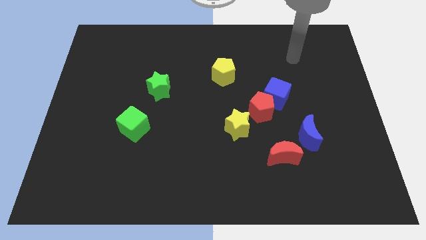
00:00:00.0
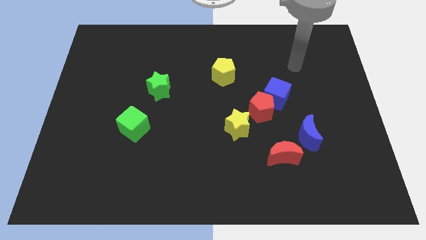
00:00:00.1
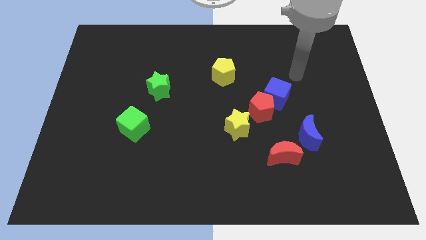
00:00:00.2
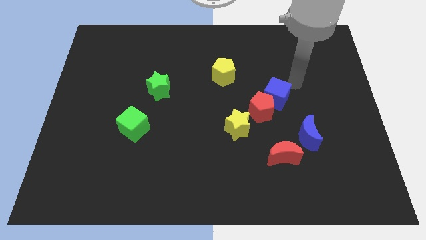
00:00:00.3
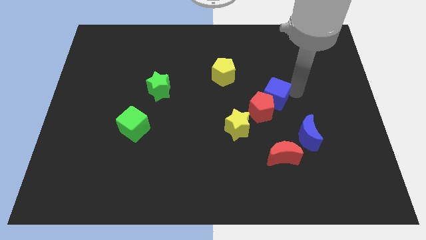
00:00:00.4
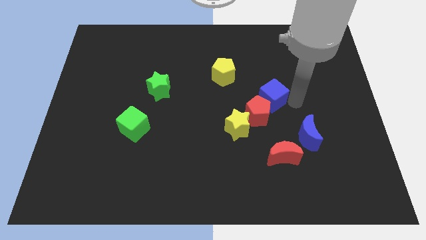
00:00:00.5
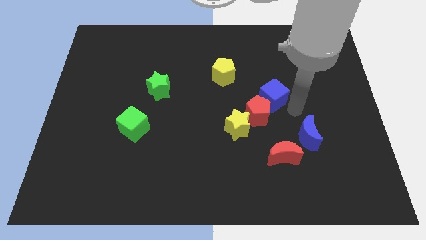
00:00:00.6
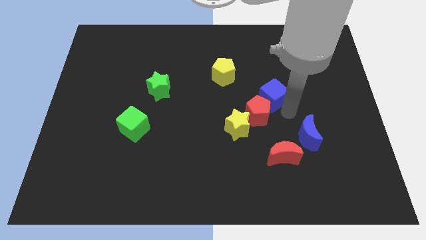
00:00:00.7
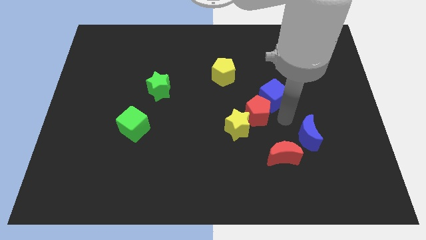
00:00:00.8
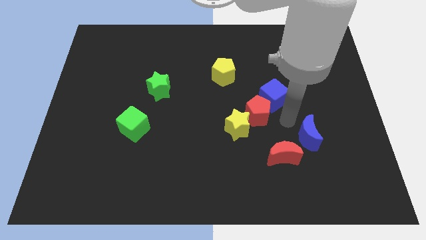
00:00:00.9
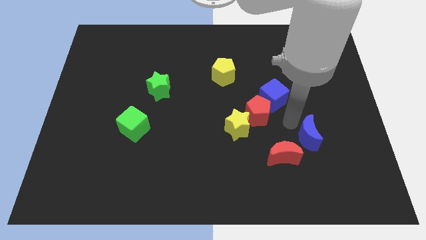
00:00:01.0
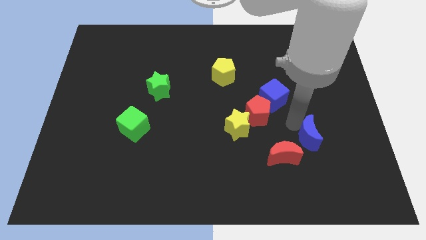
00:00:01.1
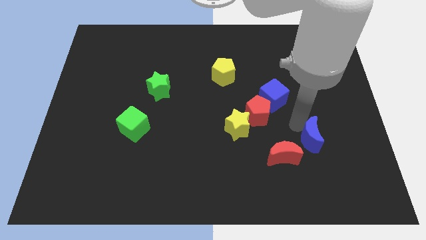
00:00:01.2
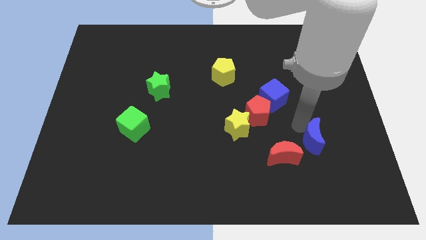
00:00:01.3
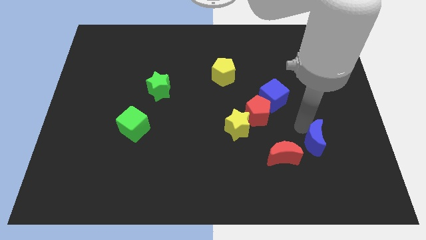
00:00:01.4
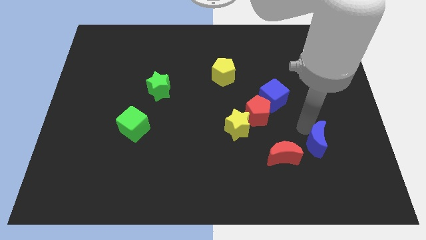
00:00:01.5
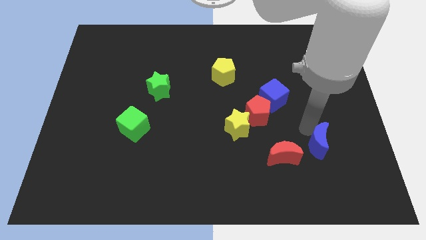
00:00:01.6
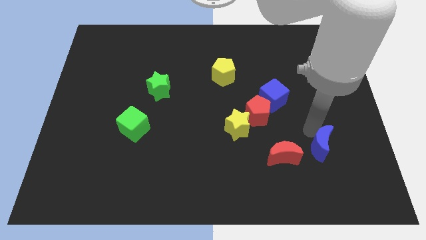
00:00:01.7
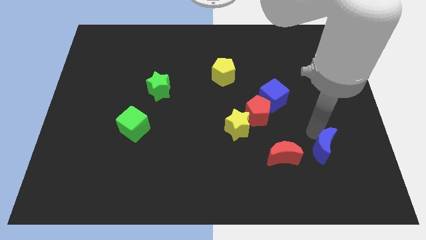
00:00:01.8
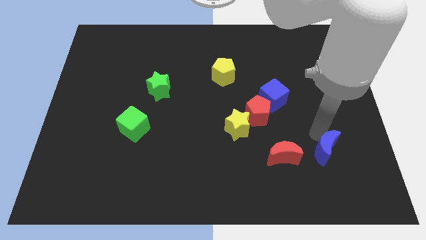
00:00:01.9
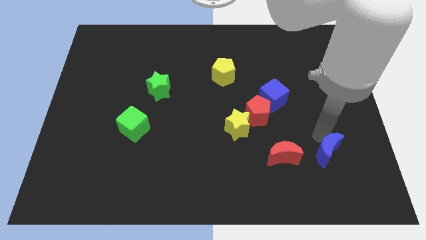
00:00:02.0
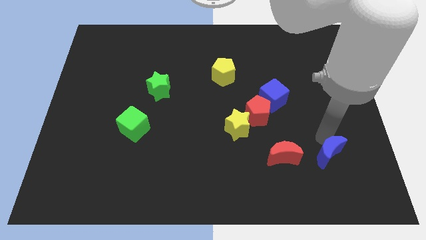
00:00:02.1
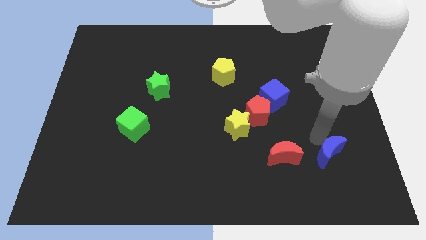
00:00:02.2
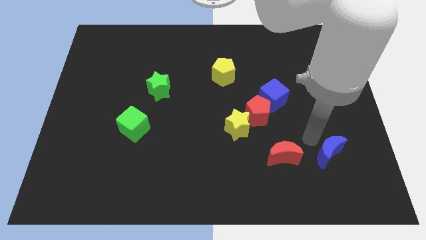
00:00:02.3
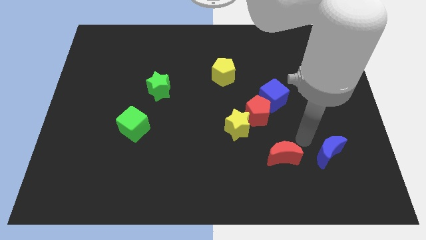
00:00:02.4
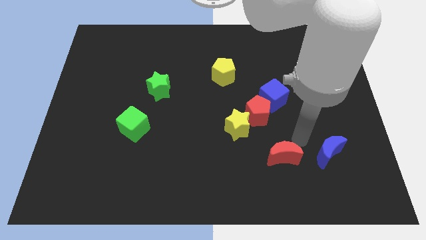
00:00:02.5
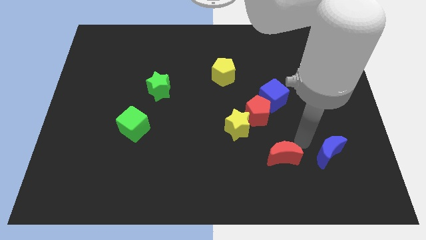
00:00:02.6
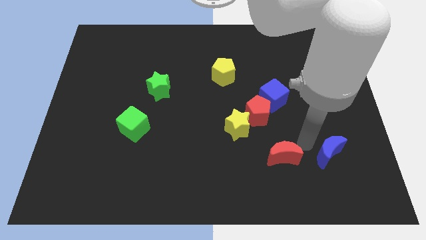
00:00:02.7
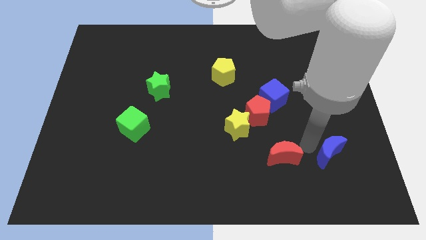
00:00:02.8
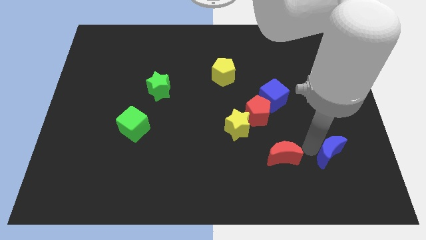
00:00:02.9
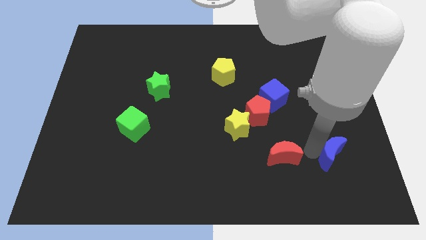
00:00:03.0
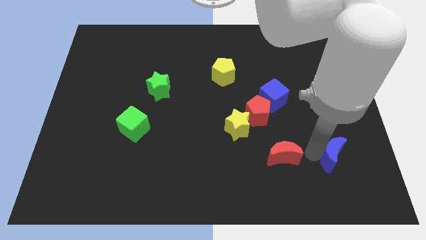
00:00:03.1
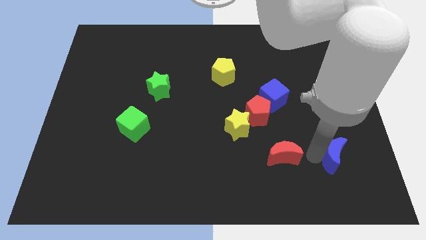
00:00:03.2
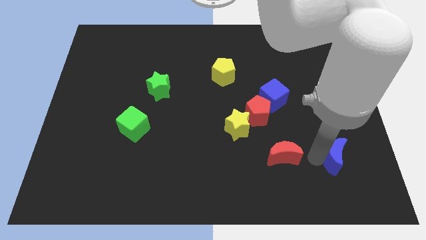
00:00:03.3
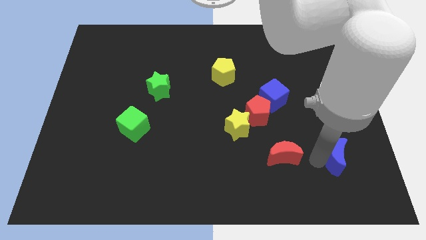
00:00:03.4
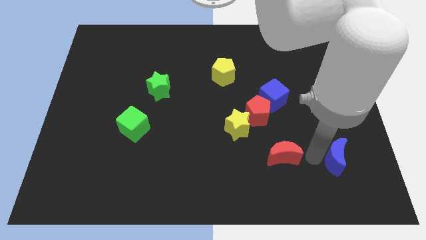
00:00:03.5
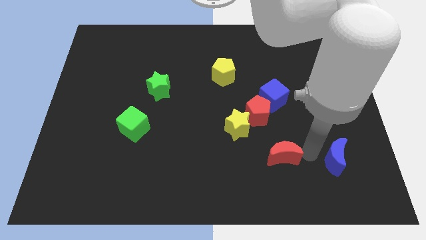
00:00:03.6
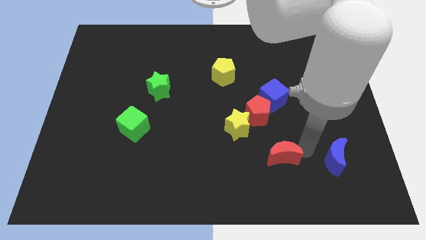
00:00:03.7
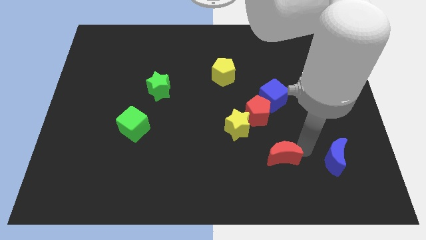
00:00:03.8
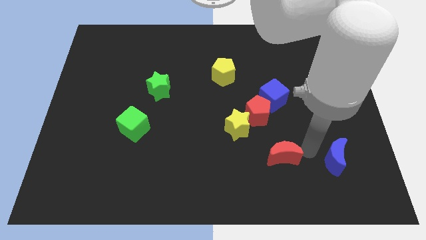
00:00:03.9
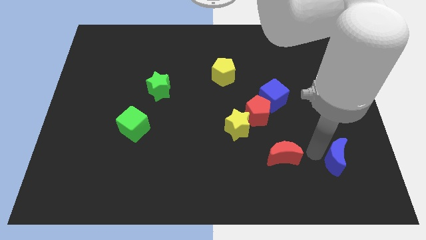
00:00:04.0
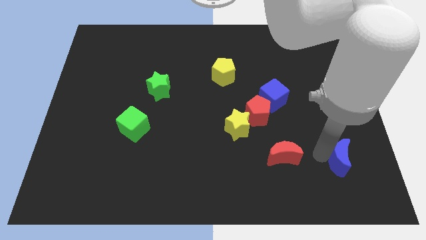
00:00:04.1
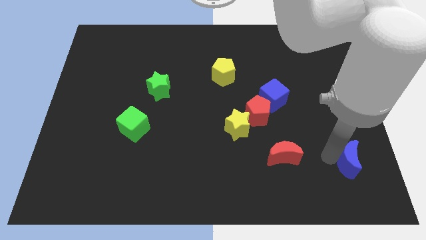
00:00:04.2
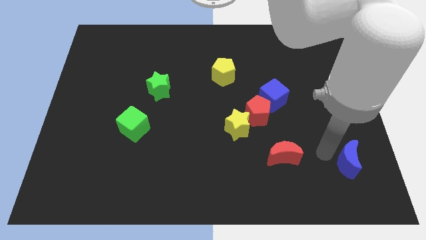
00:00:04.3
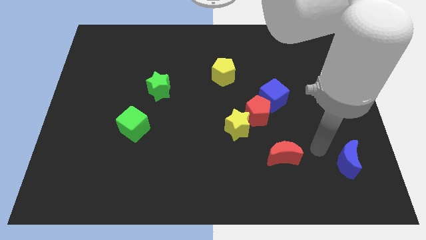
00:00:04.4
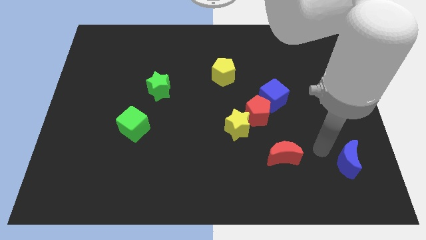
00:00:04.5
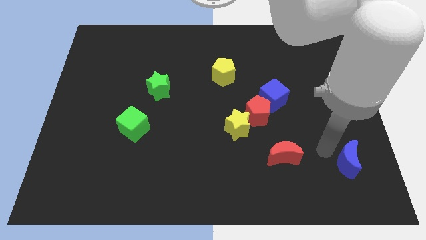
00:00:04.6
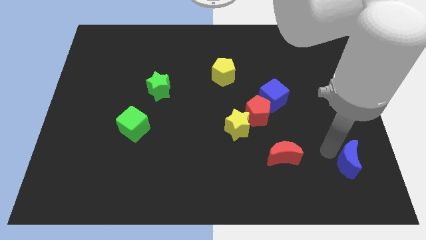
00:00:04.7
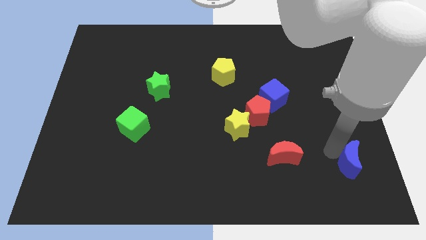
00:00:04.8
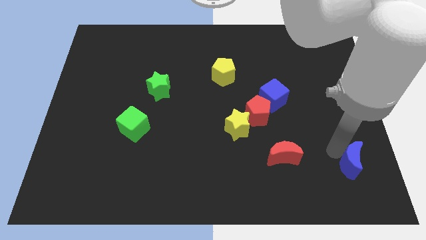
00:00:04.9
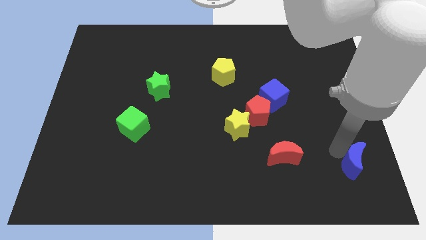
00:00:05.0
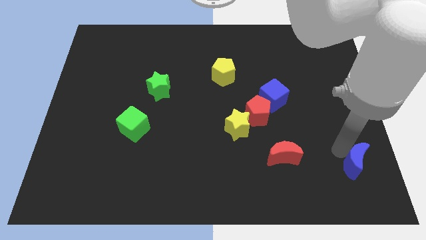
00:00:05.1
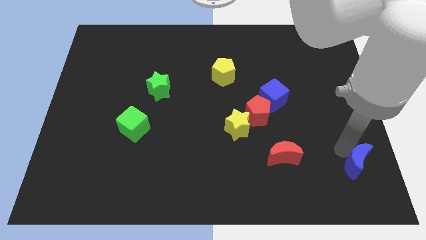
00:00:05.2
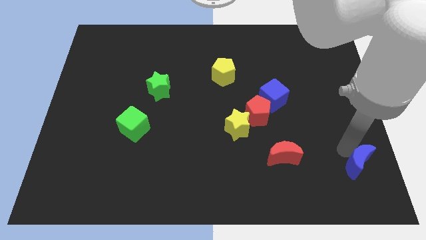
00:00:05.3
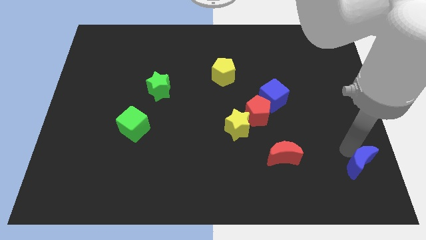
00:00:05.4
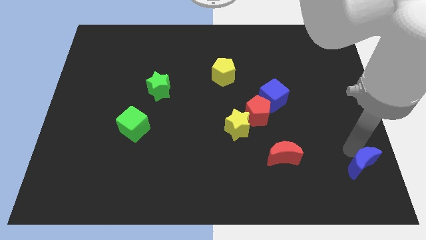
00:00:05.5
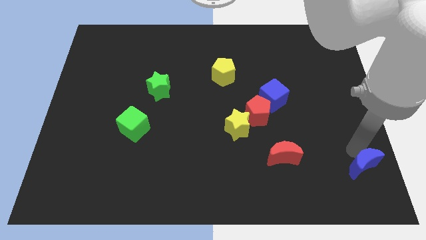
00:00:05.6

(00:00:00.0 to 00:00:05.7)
slide the blue moon to the lower right corner

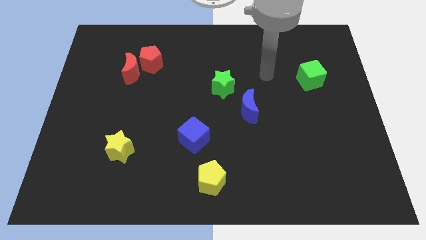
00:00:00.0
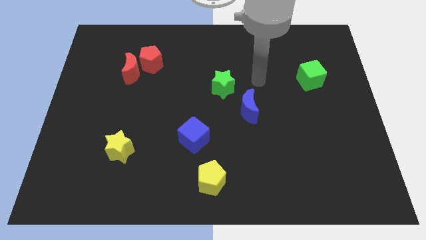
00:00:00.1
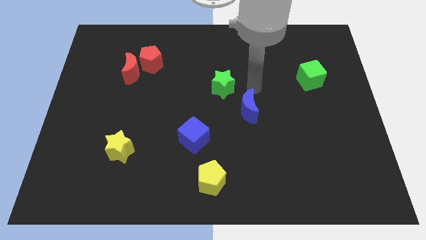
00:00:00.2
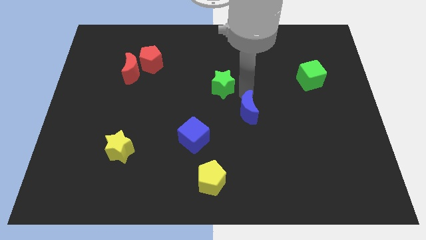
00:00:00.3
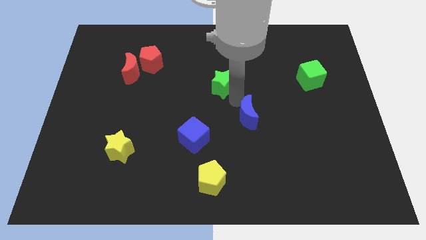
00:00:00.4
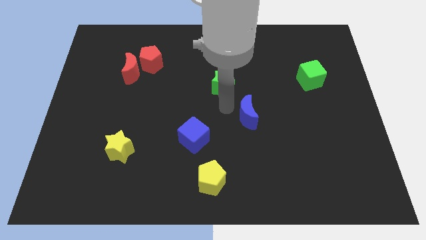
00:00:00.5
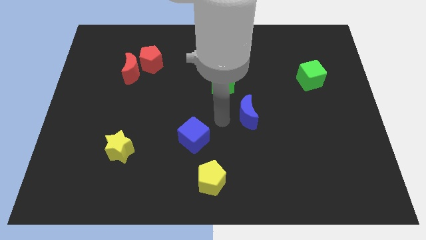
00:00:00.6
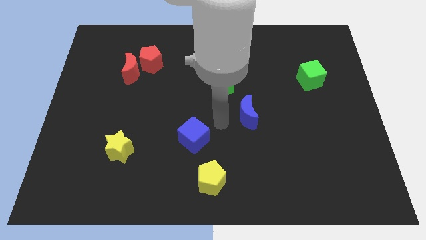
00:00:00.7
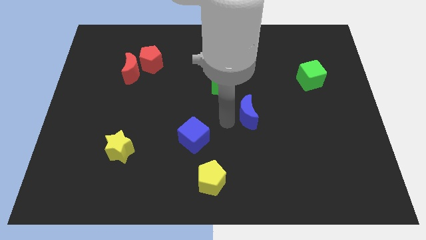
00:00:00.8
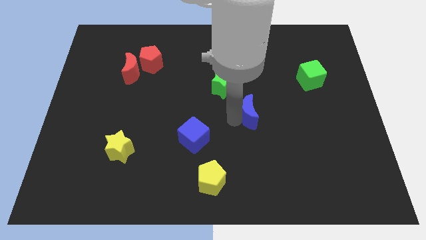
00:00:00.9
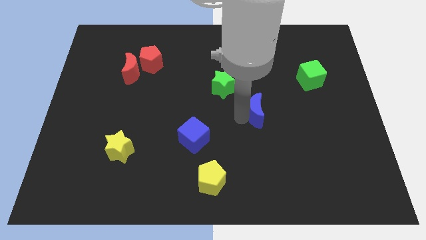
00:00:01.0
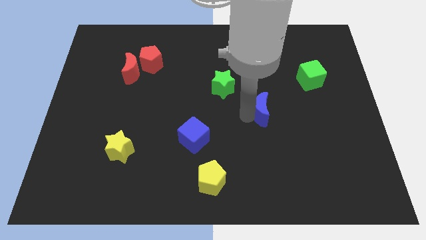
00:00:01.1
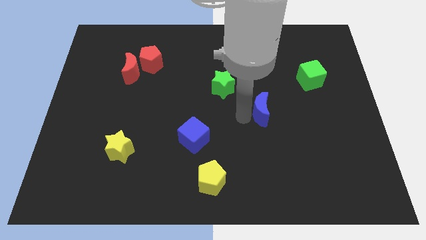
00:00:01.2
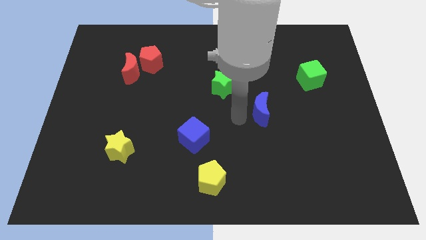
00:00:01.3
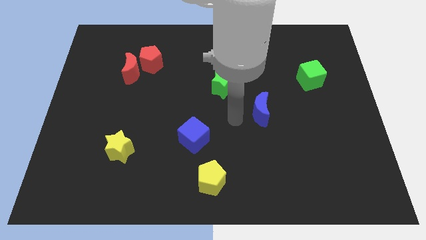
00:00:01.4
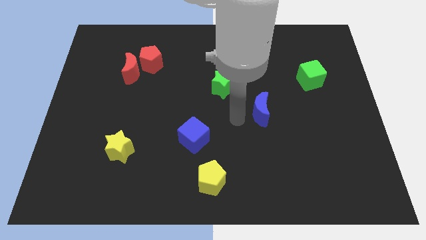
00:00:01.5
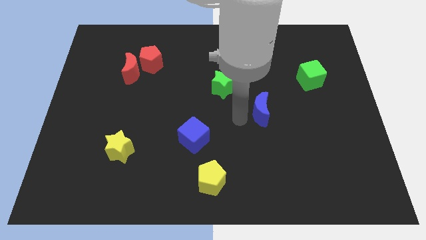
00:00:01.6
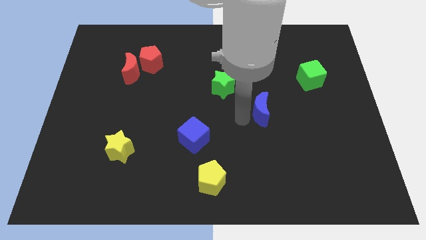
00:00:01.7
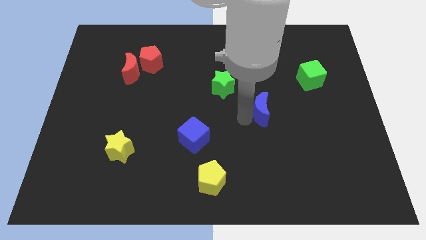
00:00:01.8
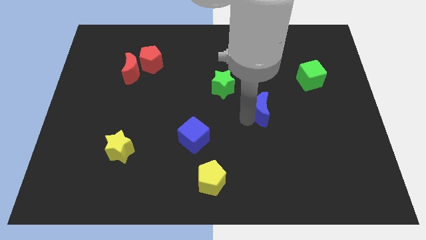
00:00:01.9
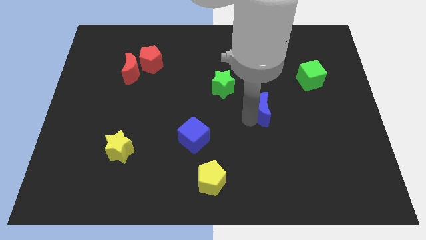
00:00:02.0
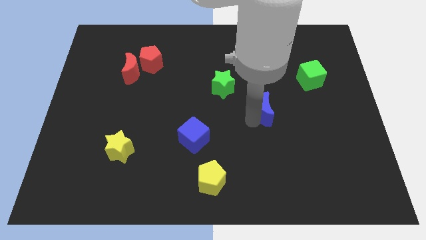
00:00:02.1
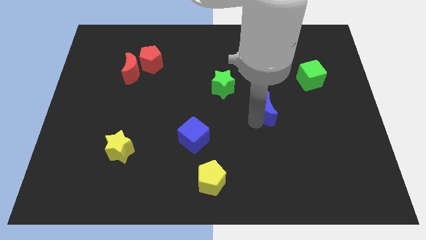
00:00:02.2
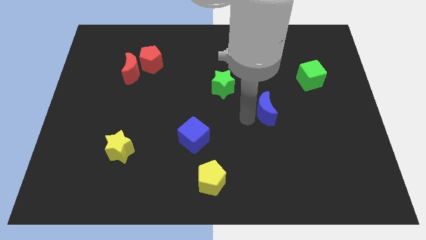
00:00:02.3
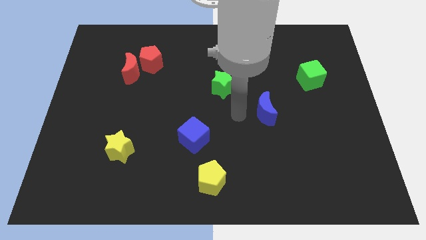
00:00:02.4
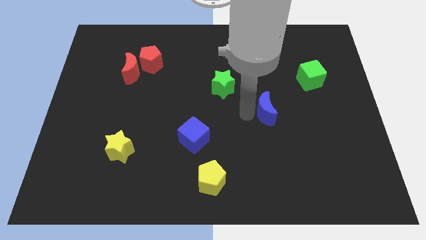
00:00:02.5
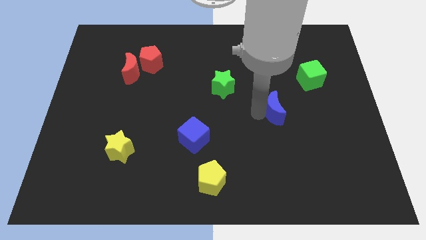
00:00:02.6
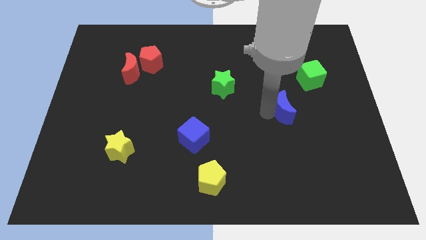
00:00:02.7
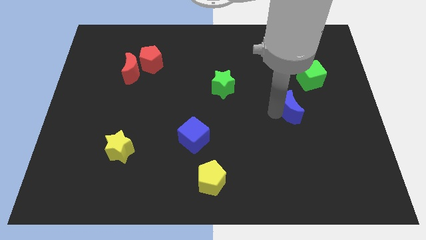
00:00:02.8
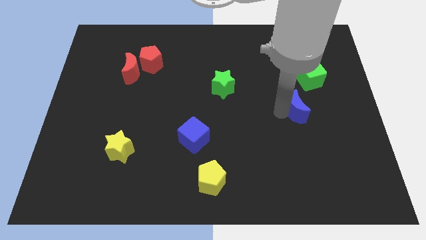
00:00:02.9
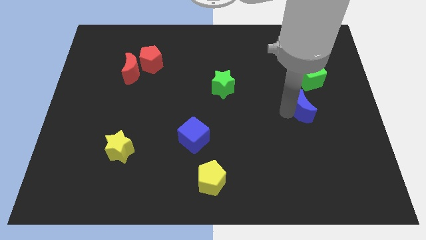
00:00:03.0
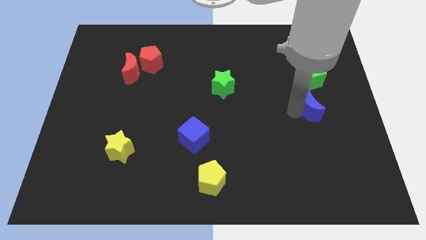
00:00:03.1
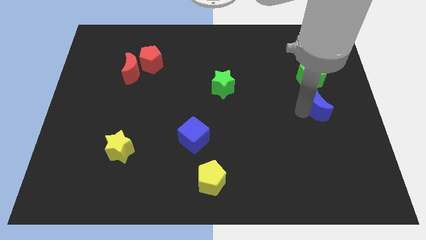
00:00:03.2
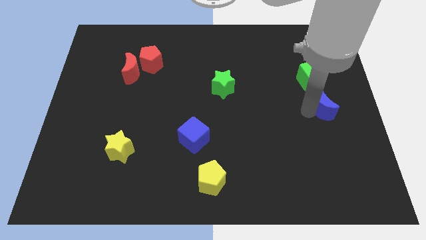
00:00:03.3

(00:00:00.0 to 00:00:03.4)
put the blue moon to the right side
